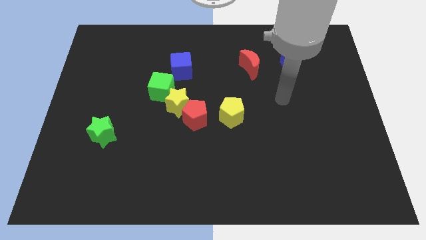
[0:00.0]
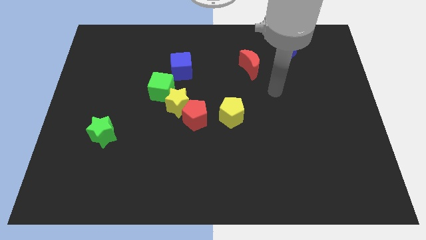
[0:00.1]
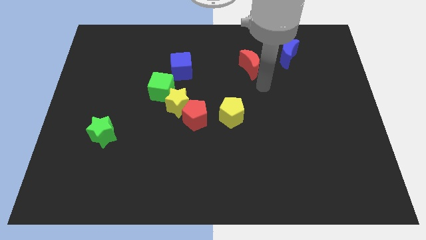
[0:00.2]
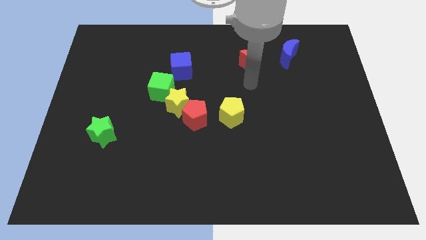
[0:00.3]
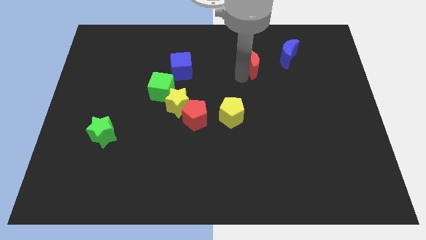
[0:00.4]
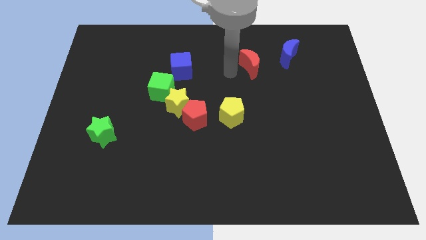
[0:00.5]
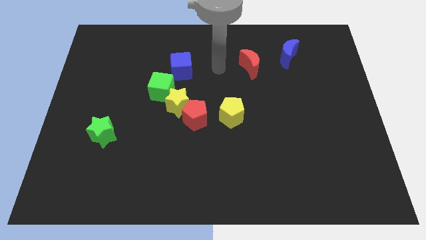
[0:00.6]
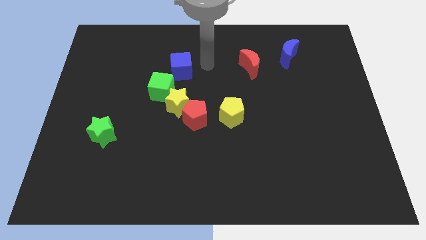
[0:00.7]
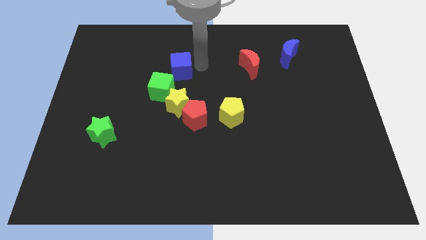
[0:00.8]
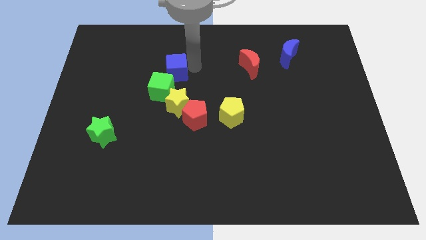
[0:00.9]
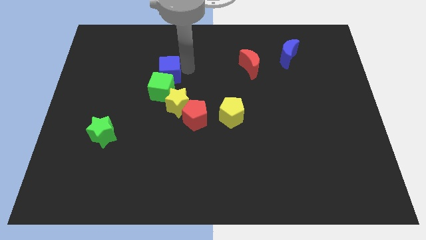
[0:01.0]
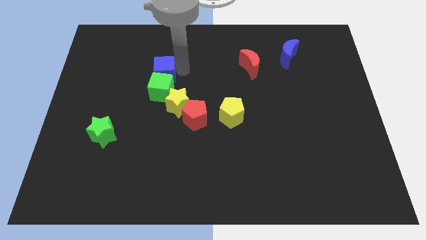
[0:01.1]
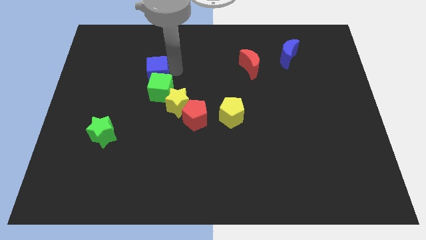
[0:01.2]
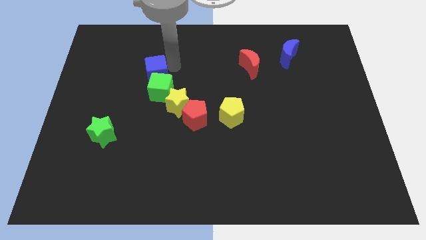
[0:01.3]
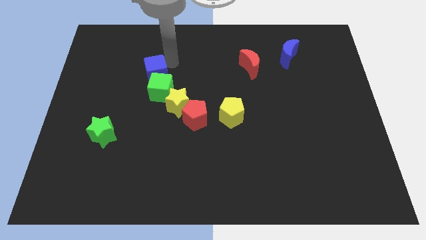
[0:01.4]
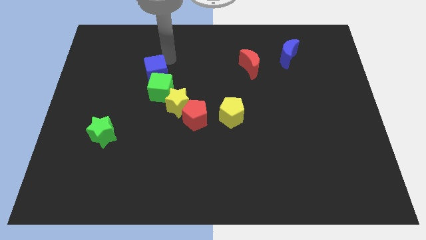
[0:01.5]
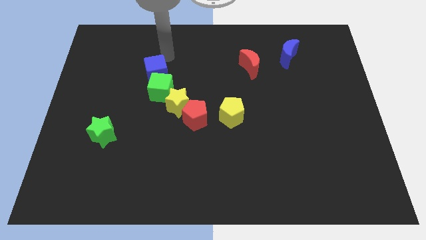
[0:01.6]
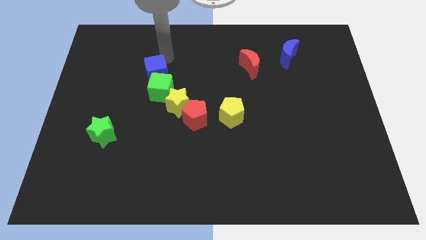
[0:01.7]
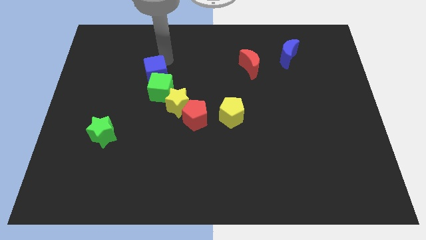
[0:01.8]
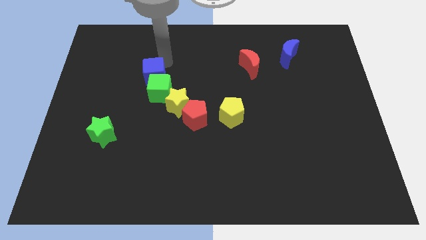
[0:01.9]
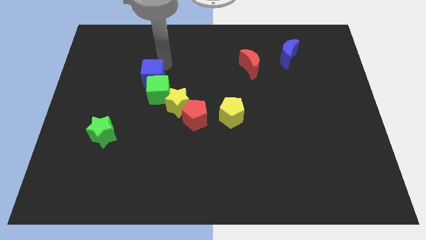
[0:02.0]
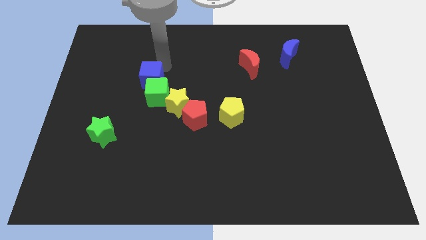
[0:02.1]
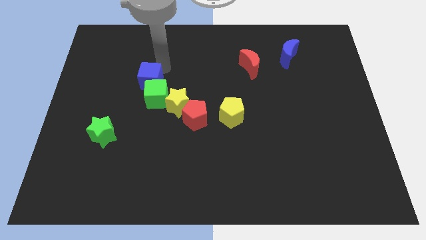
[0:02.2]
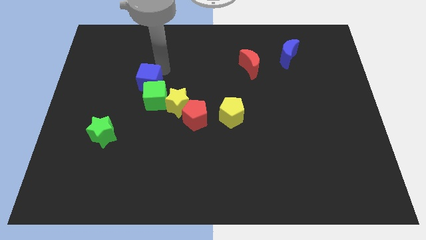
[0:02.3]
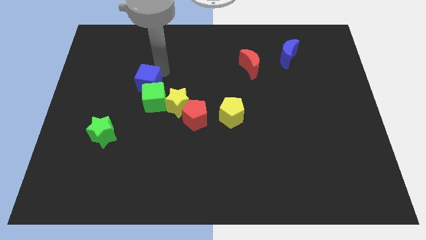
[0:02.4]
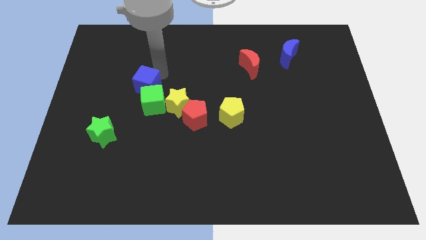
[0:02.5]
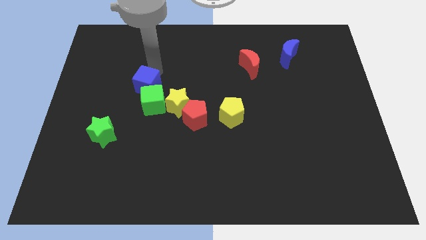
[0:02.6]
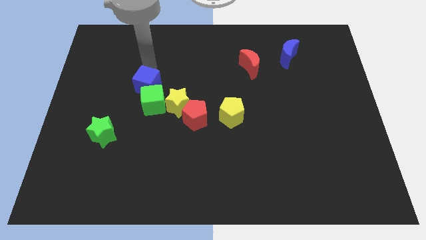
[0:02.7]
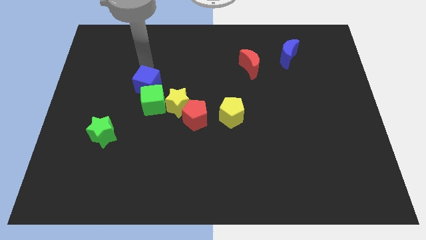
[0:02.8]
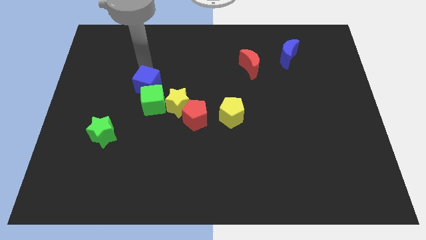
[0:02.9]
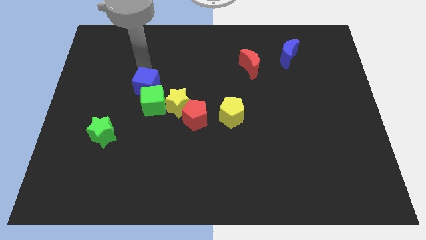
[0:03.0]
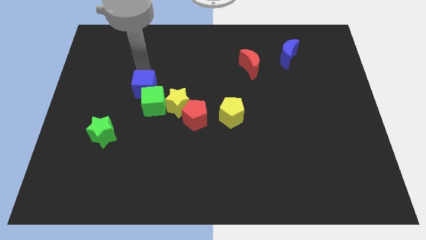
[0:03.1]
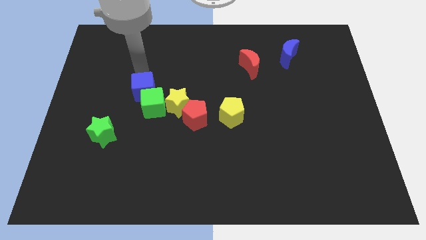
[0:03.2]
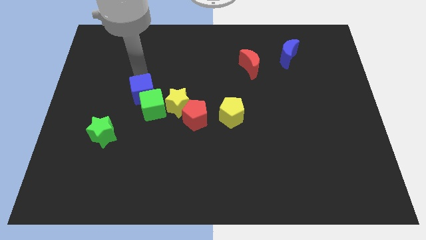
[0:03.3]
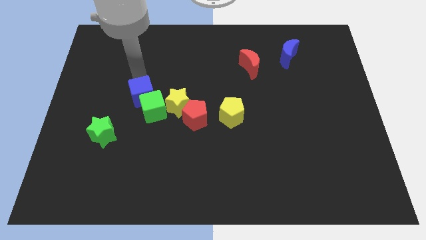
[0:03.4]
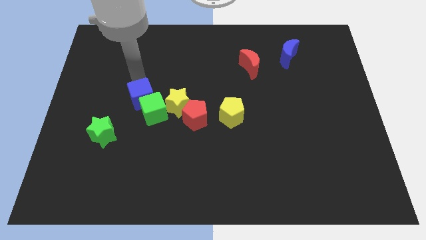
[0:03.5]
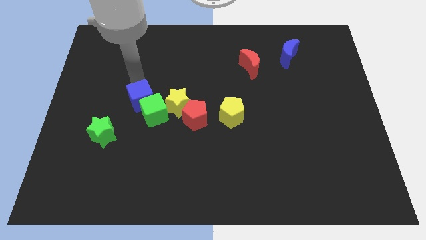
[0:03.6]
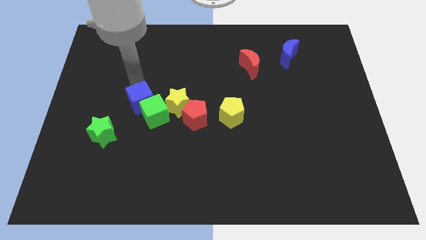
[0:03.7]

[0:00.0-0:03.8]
push the blue cube down a bit

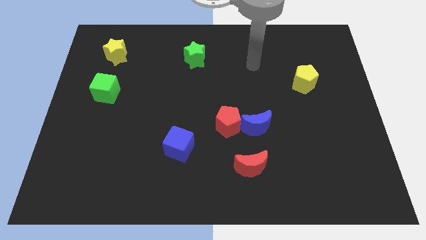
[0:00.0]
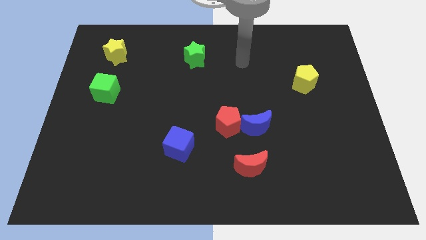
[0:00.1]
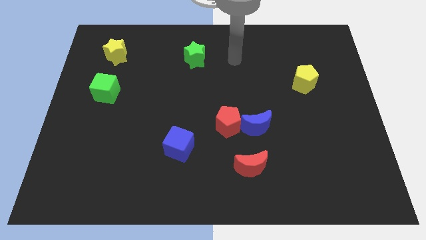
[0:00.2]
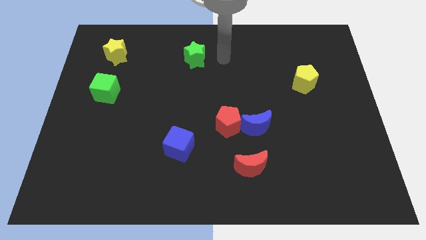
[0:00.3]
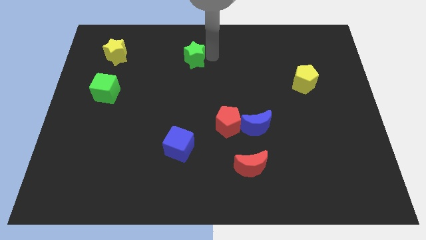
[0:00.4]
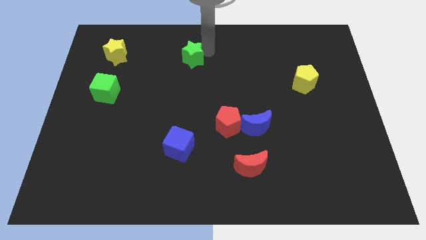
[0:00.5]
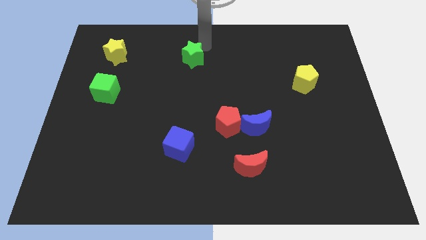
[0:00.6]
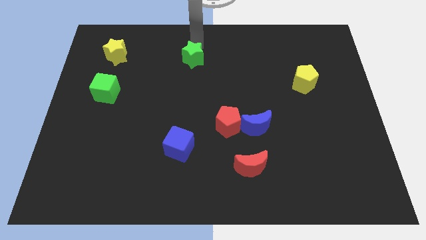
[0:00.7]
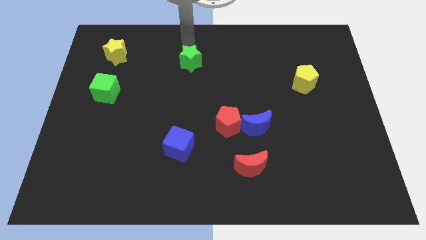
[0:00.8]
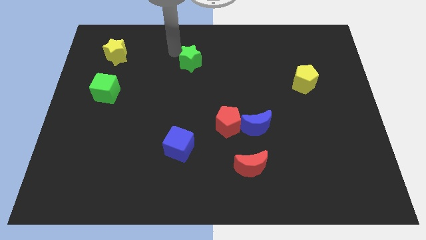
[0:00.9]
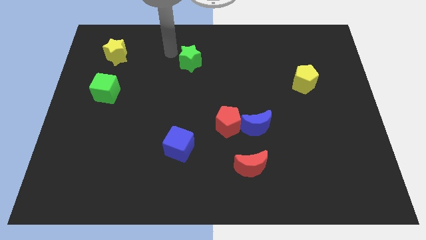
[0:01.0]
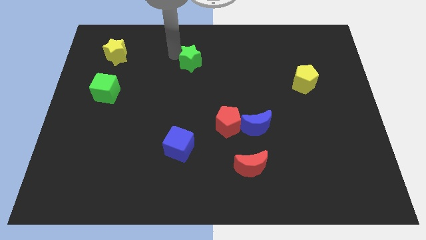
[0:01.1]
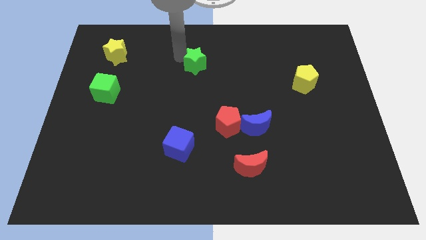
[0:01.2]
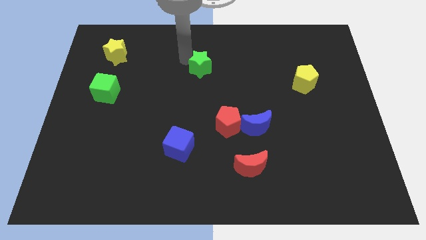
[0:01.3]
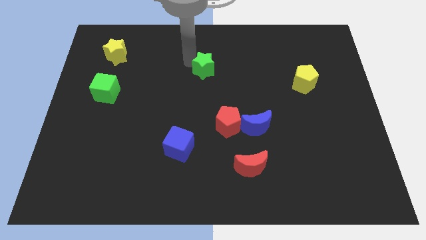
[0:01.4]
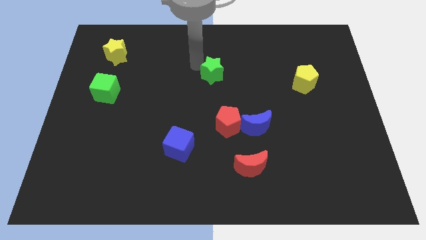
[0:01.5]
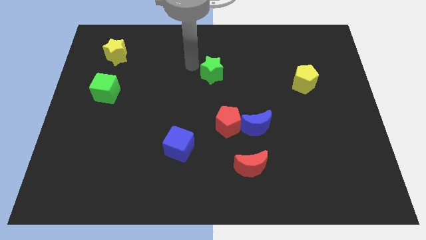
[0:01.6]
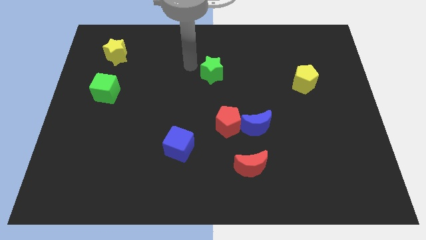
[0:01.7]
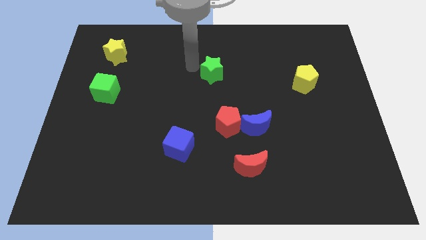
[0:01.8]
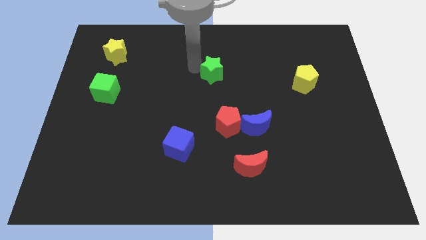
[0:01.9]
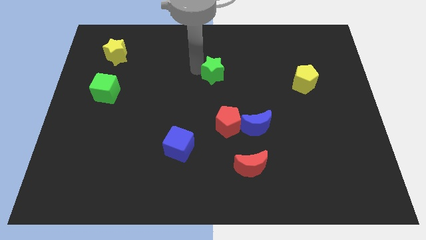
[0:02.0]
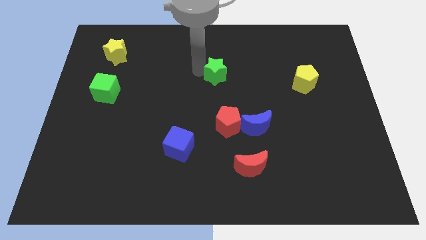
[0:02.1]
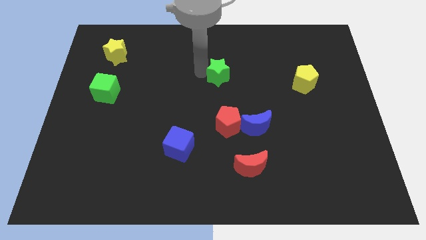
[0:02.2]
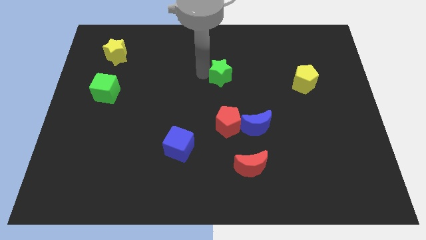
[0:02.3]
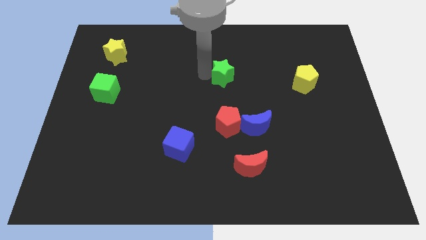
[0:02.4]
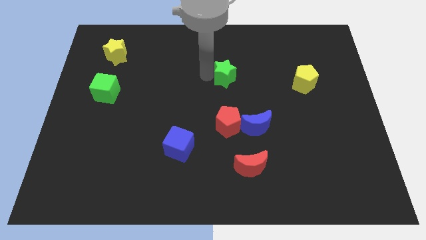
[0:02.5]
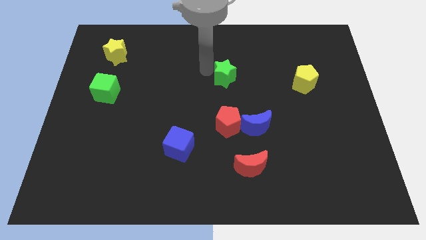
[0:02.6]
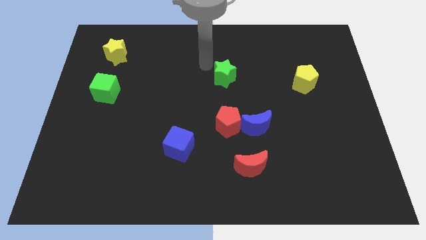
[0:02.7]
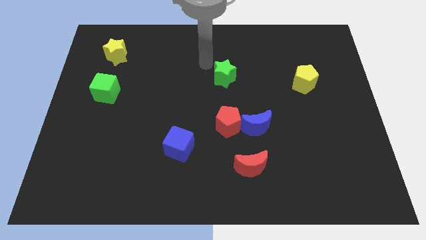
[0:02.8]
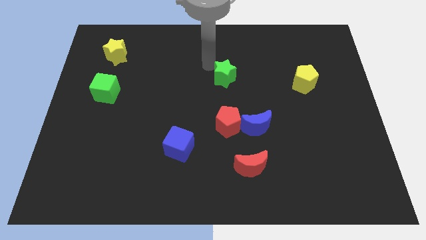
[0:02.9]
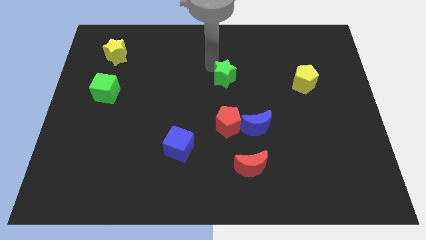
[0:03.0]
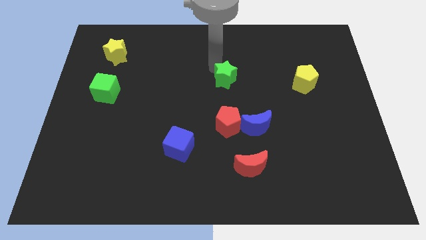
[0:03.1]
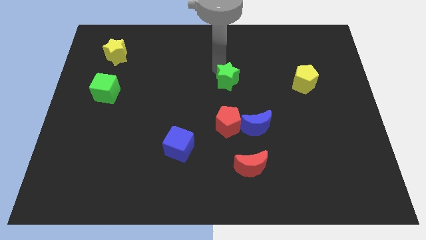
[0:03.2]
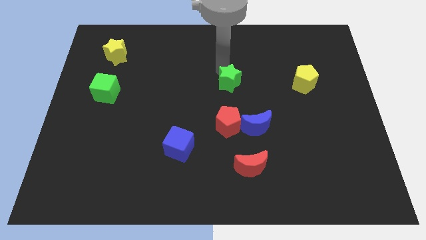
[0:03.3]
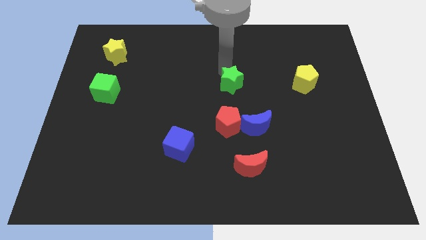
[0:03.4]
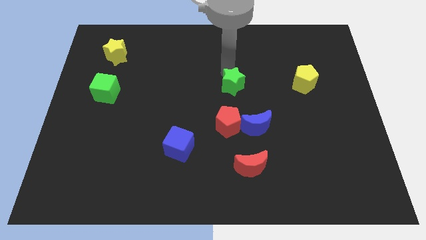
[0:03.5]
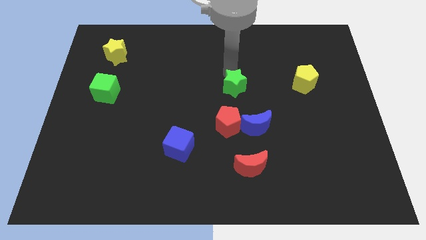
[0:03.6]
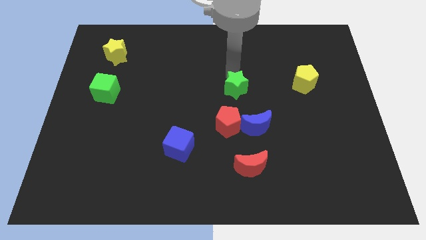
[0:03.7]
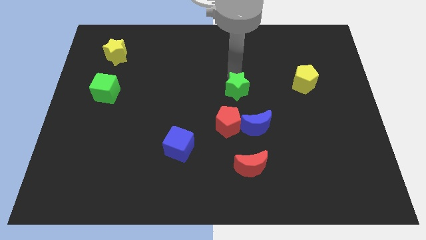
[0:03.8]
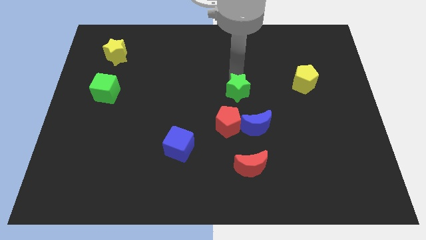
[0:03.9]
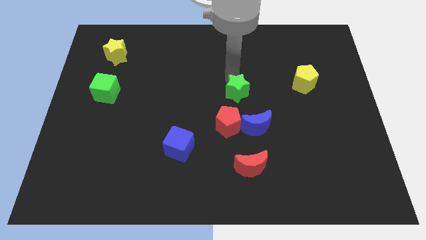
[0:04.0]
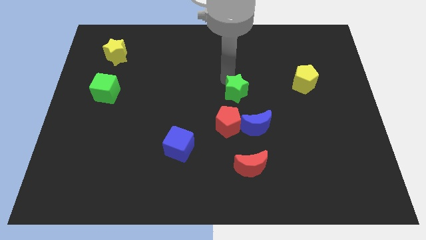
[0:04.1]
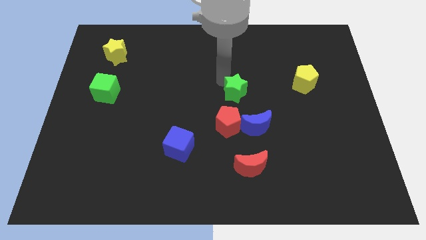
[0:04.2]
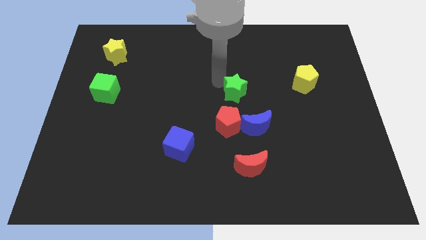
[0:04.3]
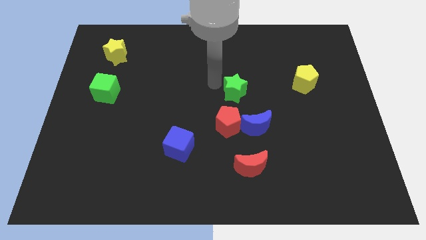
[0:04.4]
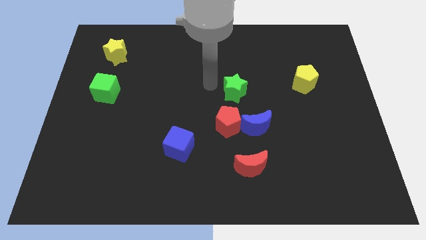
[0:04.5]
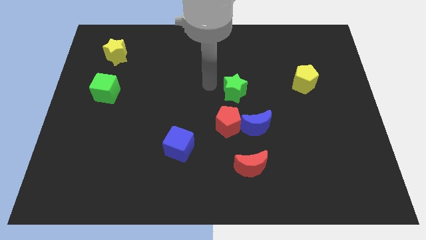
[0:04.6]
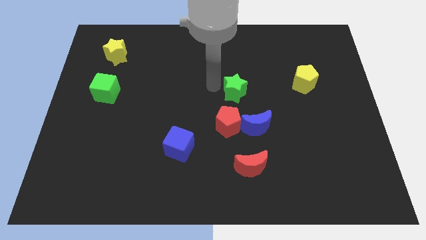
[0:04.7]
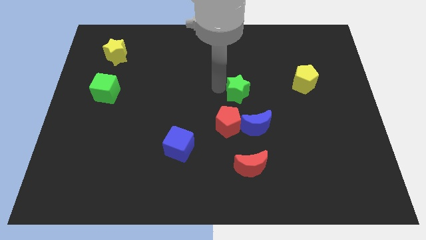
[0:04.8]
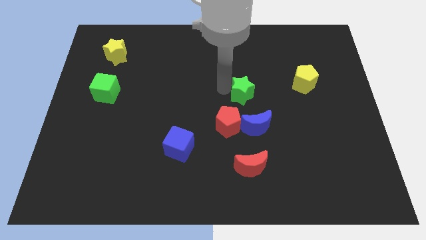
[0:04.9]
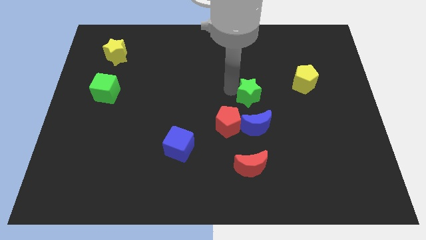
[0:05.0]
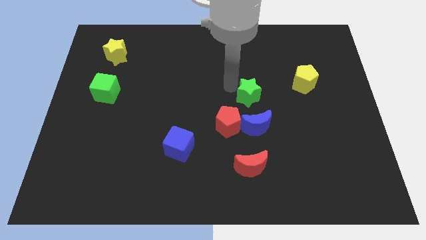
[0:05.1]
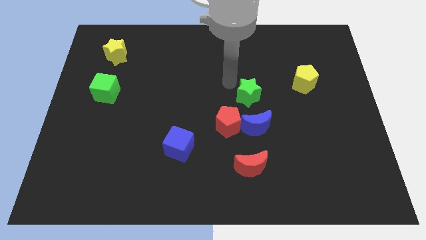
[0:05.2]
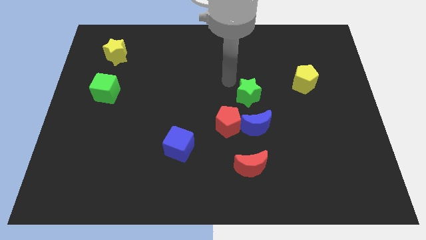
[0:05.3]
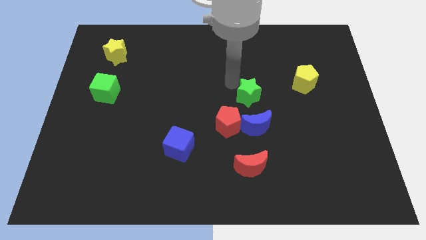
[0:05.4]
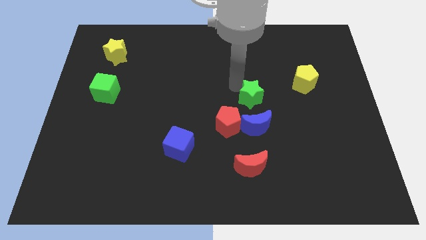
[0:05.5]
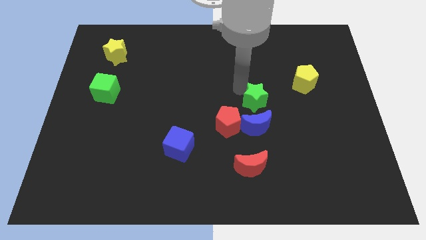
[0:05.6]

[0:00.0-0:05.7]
slide the green star diagonally down and to the right
